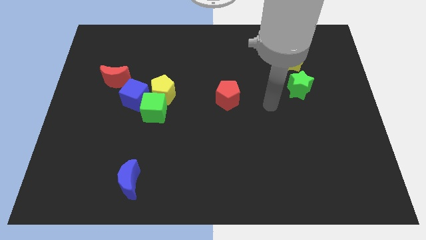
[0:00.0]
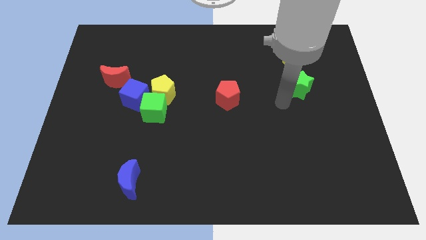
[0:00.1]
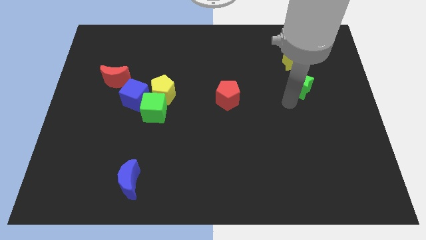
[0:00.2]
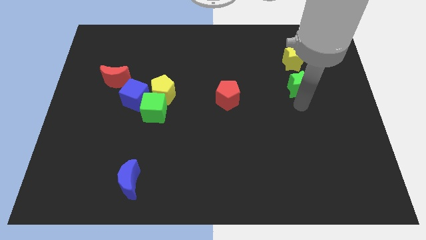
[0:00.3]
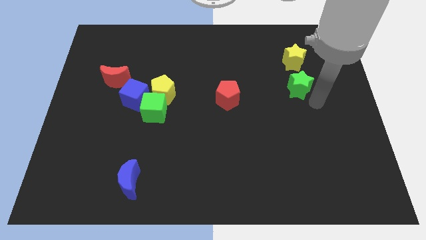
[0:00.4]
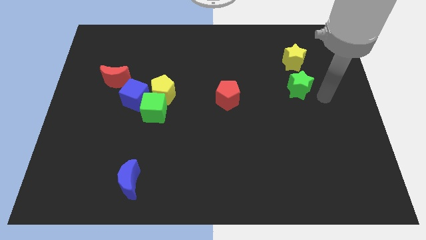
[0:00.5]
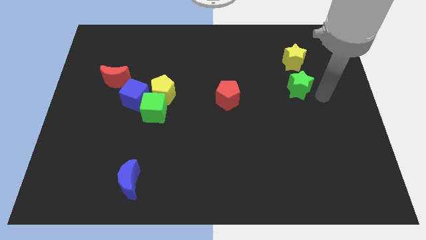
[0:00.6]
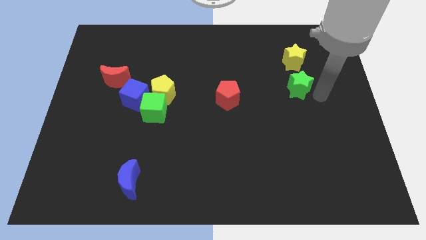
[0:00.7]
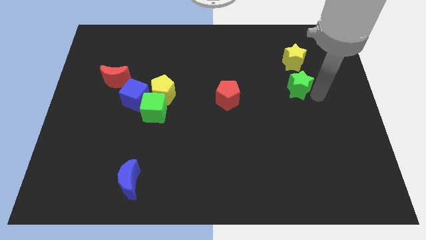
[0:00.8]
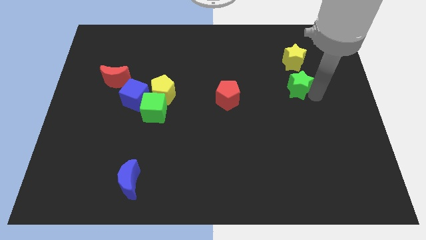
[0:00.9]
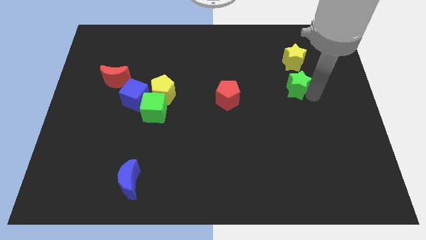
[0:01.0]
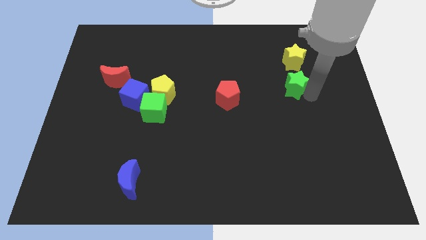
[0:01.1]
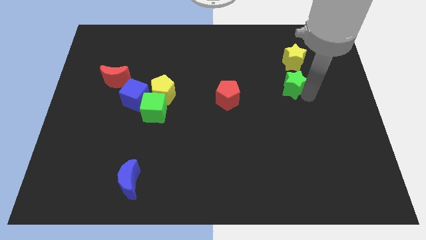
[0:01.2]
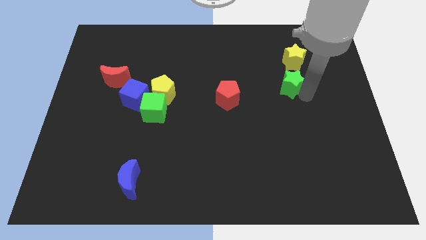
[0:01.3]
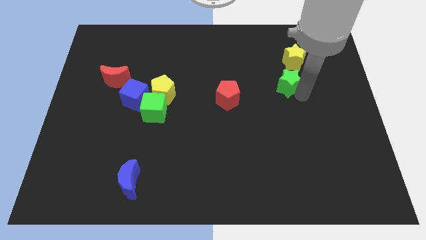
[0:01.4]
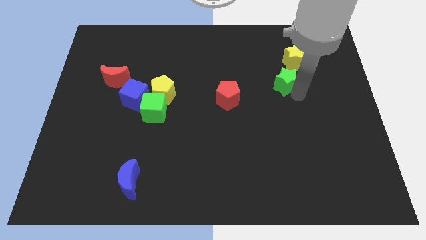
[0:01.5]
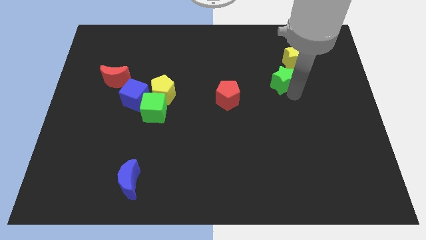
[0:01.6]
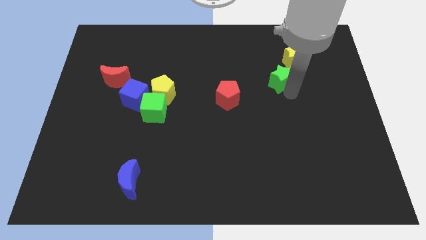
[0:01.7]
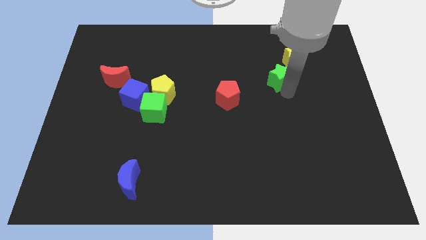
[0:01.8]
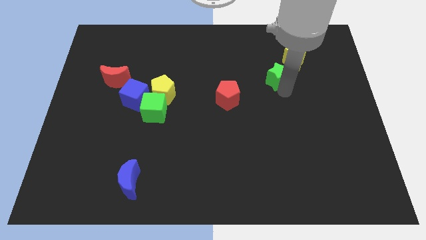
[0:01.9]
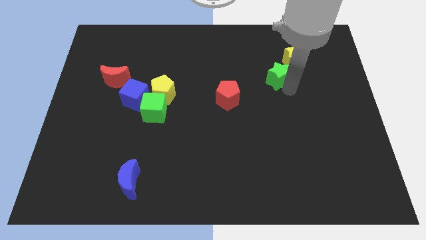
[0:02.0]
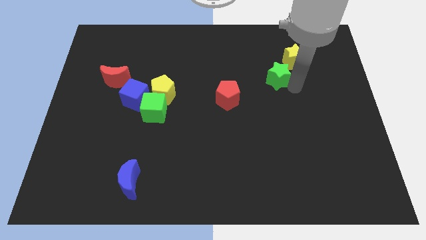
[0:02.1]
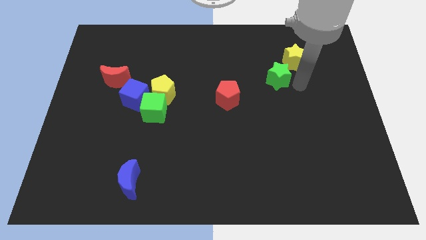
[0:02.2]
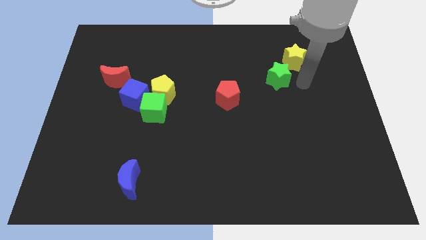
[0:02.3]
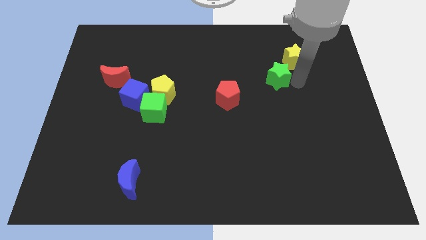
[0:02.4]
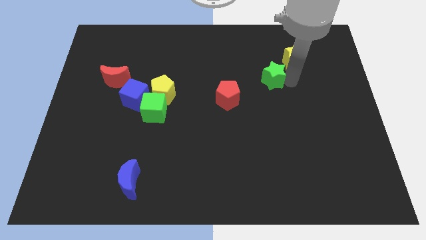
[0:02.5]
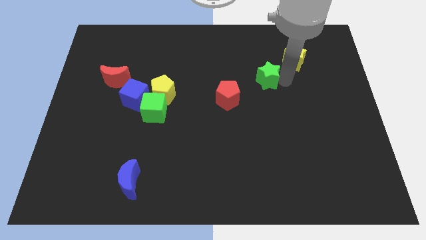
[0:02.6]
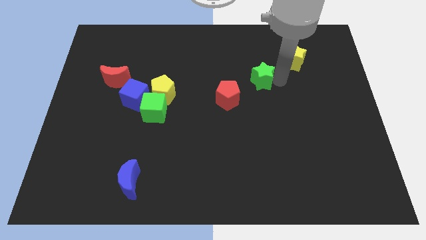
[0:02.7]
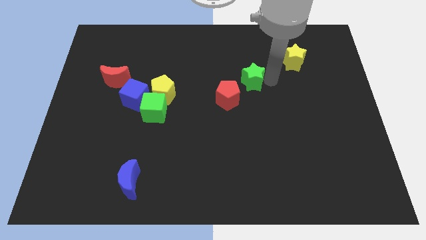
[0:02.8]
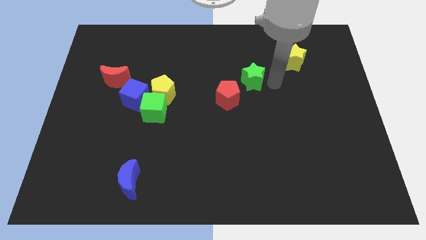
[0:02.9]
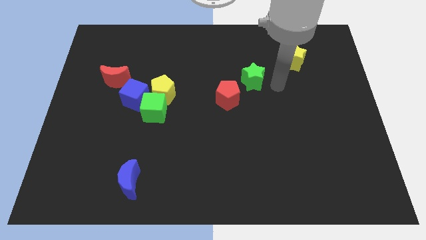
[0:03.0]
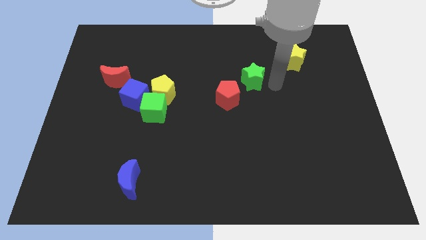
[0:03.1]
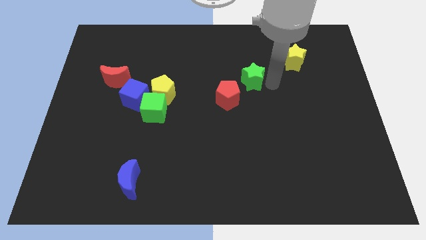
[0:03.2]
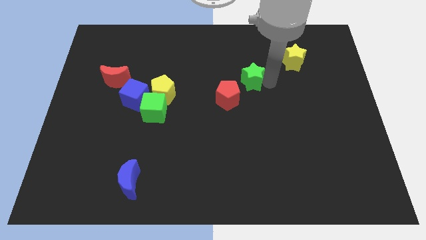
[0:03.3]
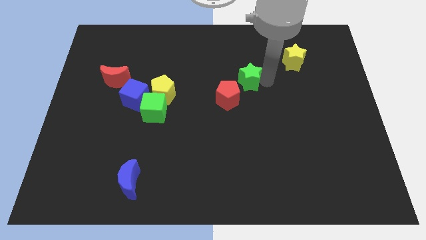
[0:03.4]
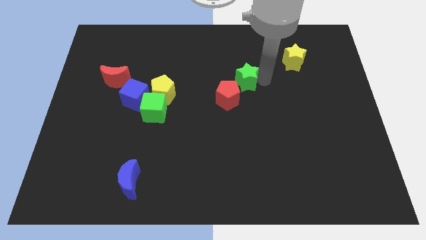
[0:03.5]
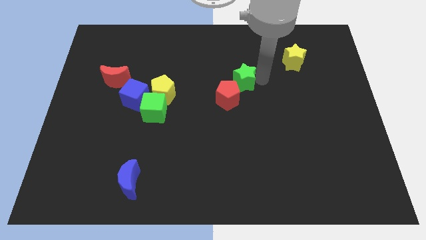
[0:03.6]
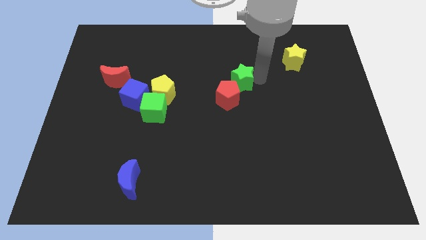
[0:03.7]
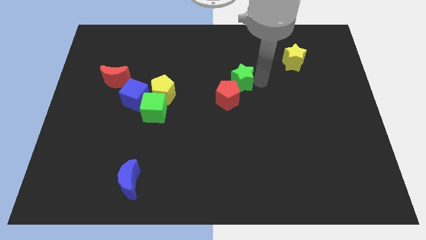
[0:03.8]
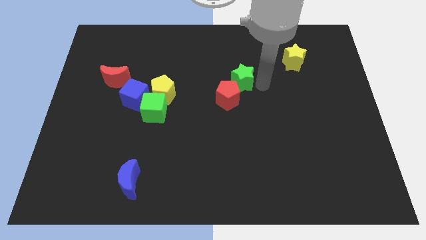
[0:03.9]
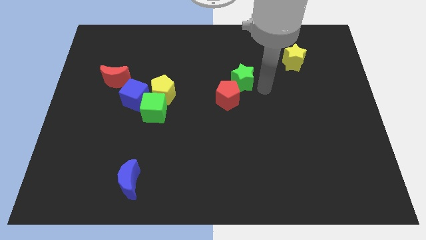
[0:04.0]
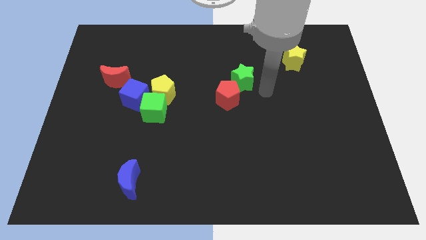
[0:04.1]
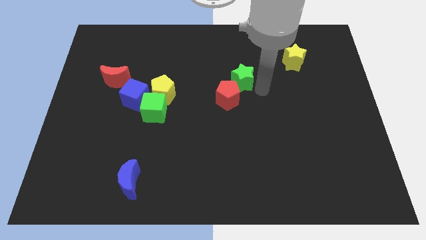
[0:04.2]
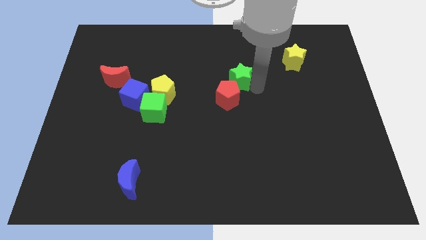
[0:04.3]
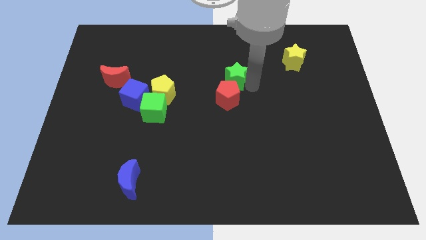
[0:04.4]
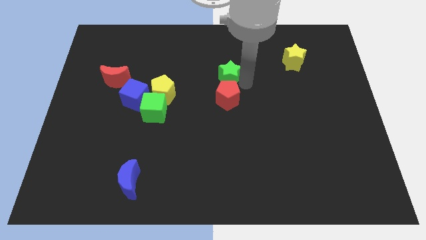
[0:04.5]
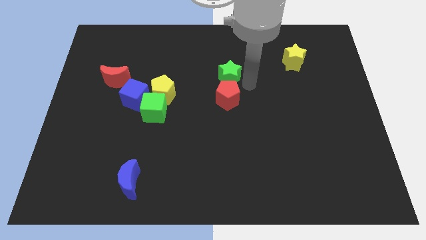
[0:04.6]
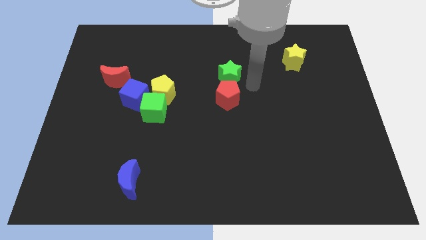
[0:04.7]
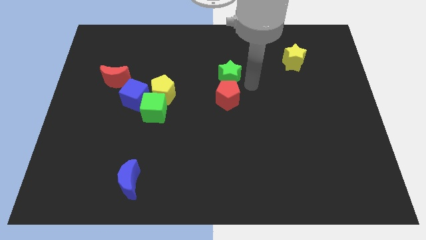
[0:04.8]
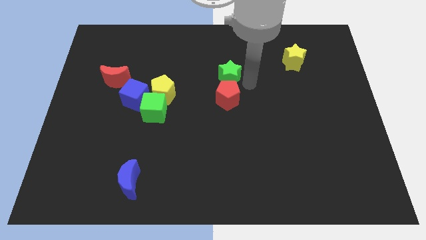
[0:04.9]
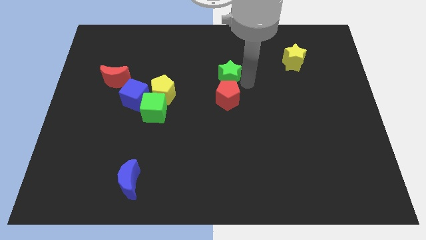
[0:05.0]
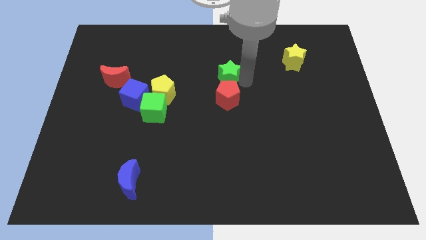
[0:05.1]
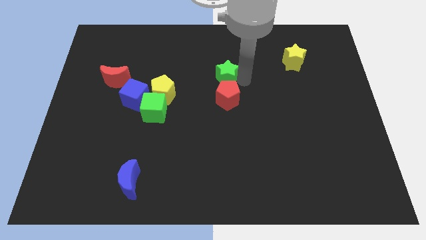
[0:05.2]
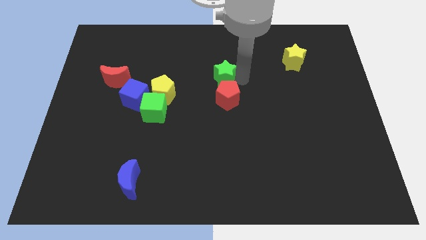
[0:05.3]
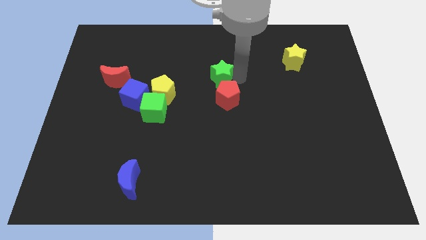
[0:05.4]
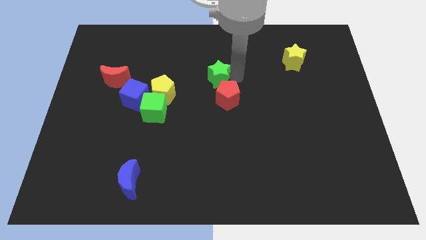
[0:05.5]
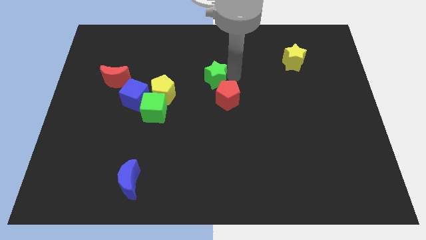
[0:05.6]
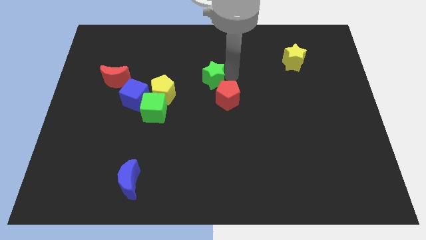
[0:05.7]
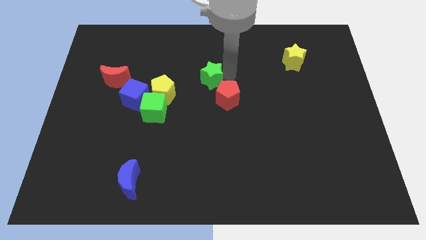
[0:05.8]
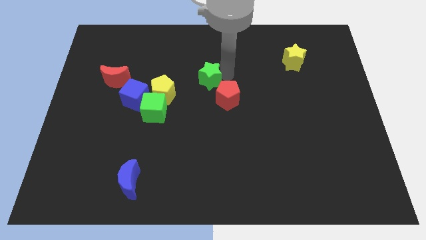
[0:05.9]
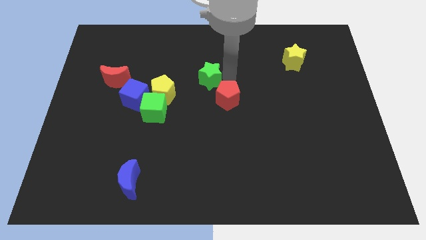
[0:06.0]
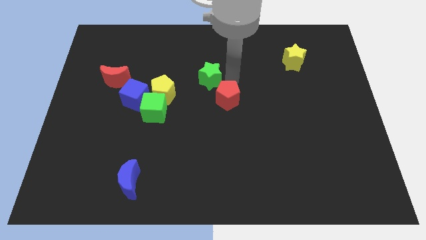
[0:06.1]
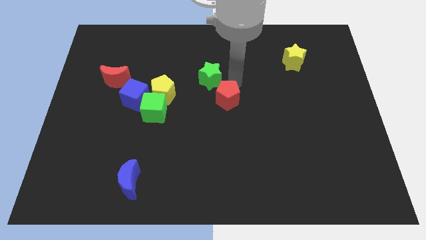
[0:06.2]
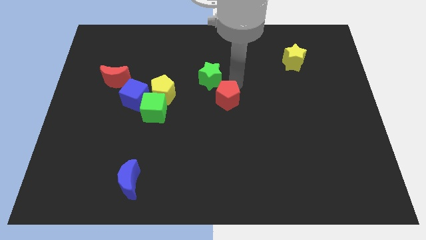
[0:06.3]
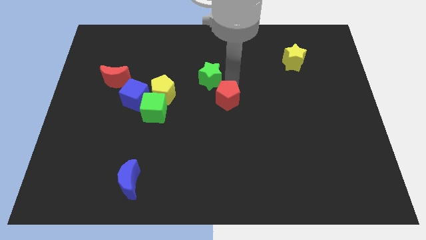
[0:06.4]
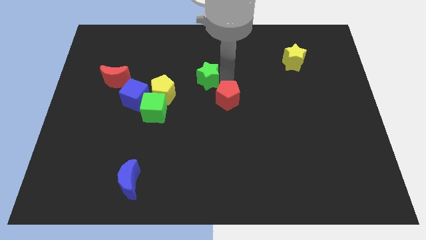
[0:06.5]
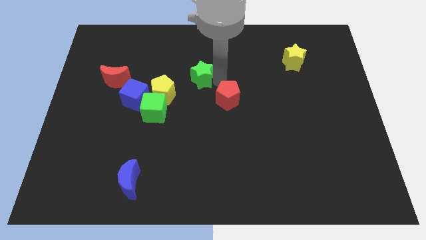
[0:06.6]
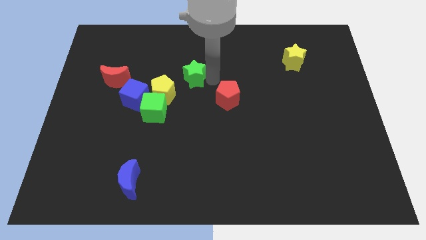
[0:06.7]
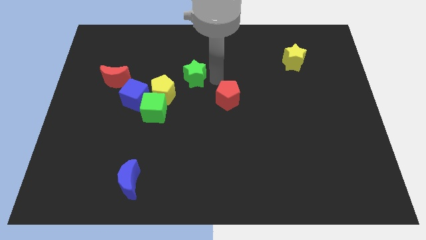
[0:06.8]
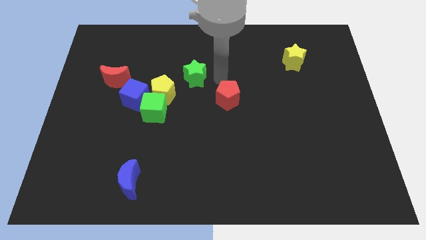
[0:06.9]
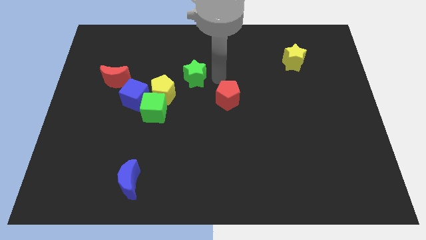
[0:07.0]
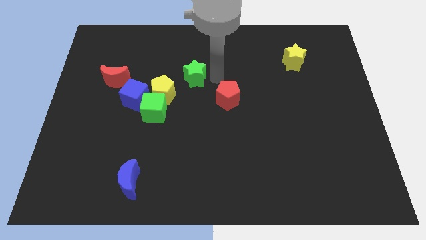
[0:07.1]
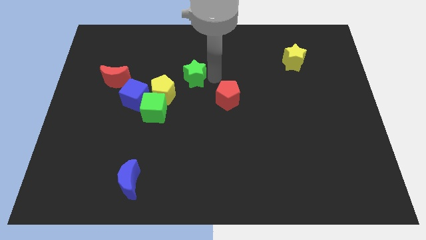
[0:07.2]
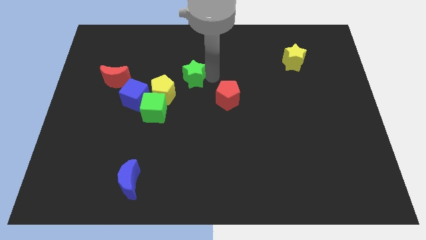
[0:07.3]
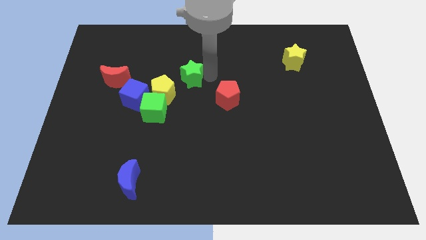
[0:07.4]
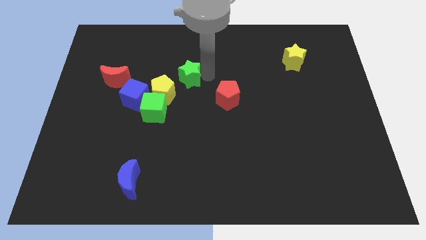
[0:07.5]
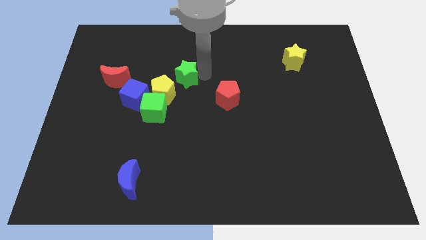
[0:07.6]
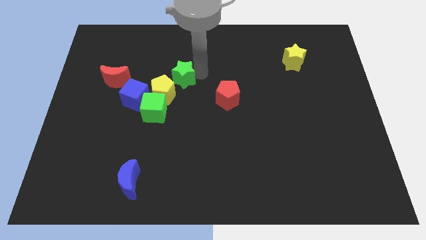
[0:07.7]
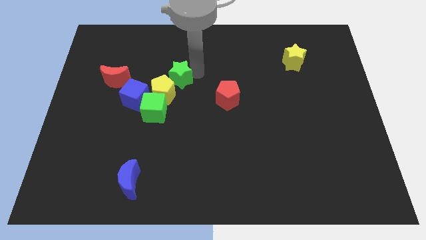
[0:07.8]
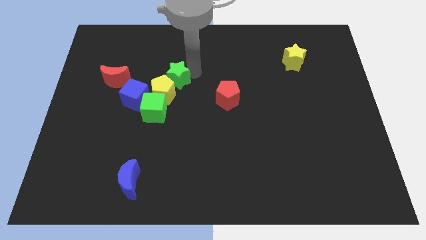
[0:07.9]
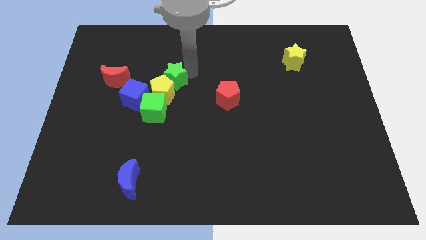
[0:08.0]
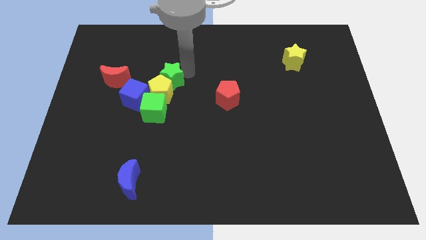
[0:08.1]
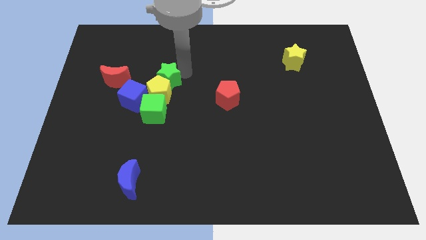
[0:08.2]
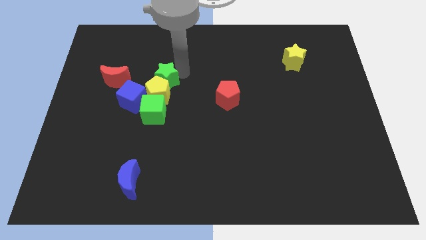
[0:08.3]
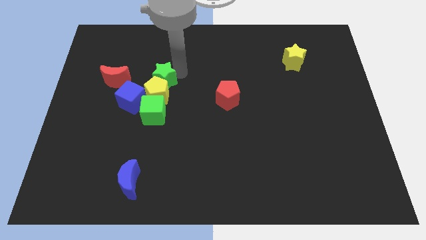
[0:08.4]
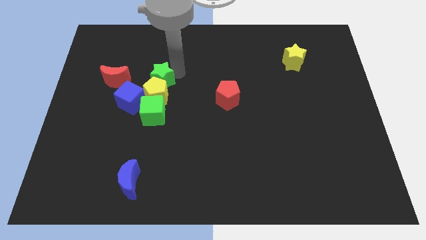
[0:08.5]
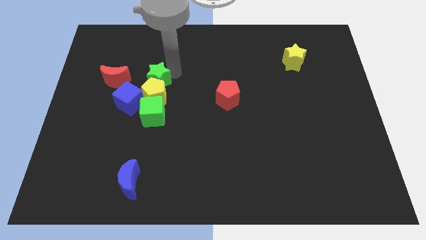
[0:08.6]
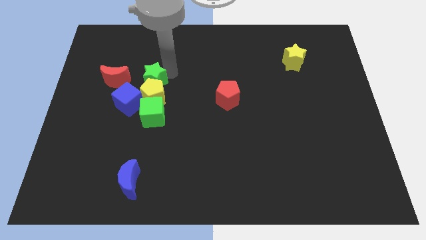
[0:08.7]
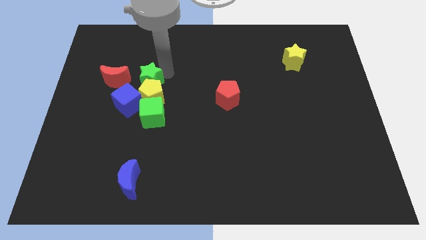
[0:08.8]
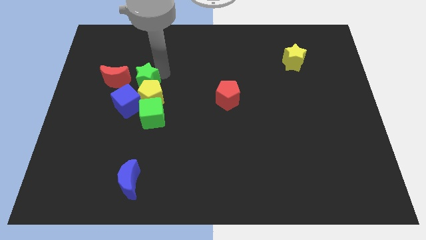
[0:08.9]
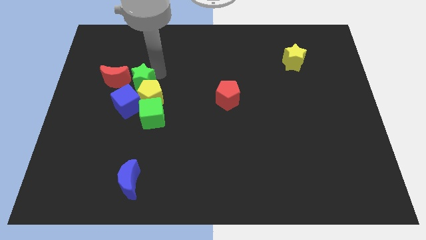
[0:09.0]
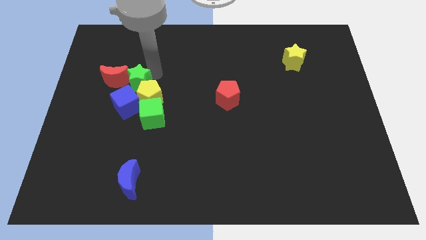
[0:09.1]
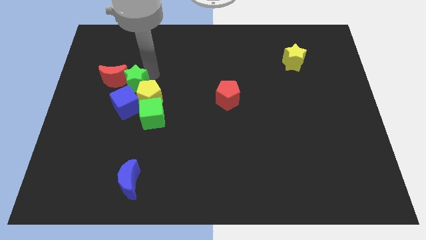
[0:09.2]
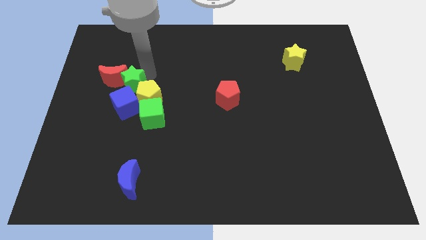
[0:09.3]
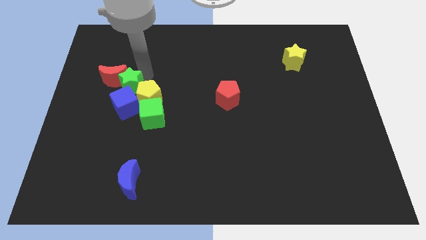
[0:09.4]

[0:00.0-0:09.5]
move the green star to the blue cube
